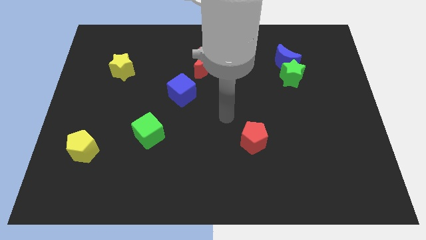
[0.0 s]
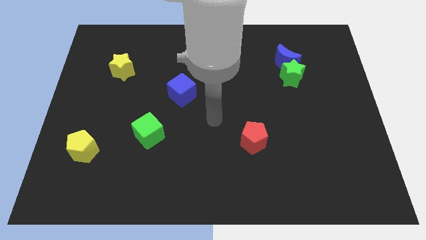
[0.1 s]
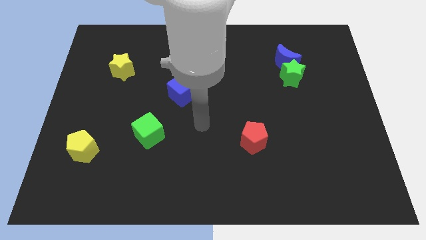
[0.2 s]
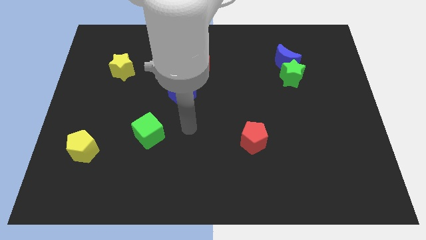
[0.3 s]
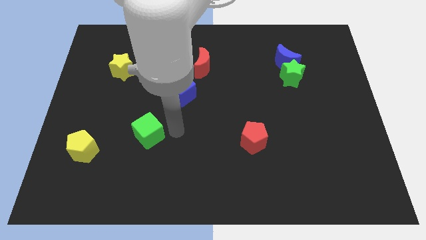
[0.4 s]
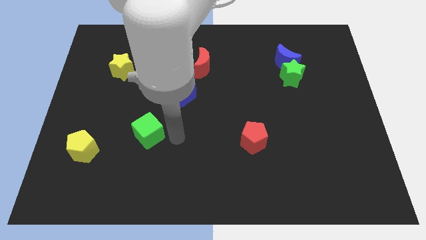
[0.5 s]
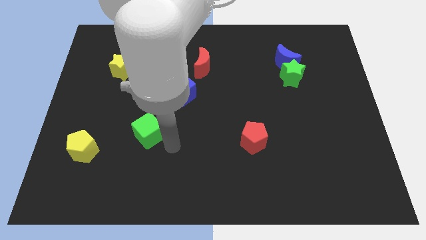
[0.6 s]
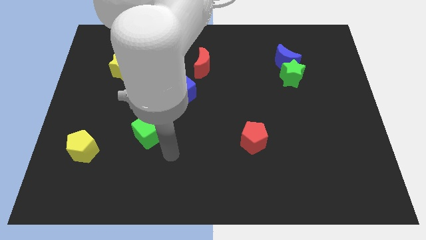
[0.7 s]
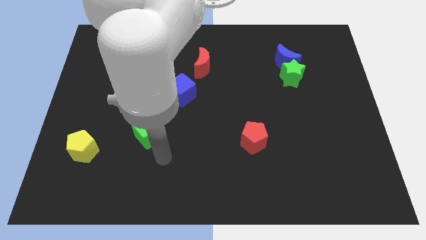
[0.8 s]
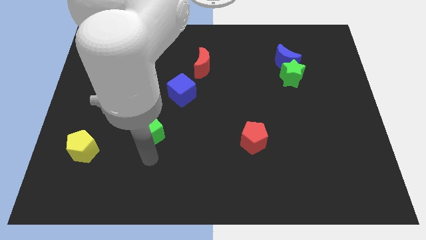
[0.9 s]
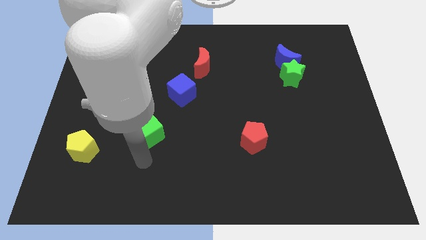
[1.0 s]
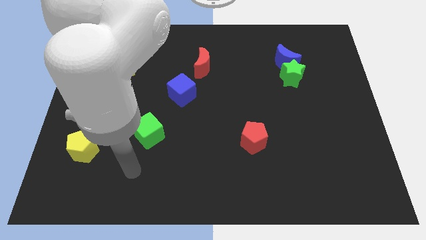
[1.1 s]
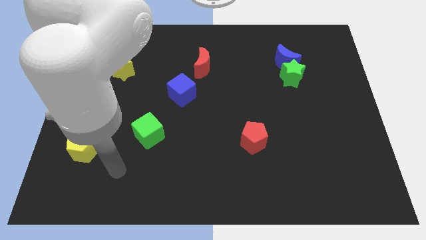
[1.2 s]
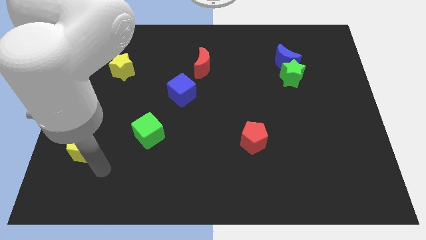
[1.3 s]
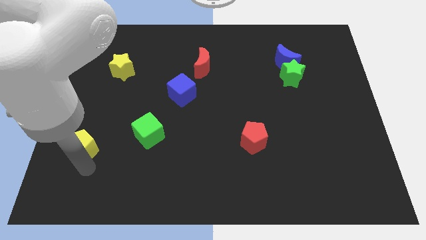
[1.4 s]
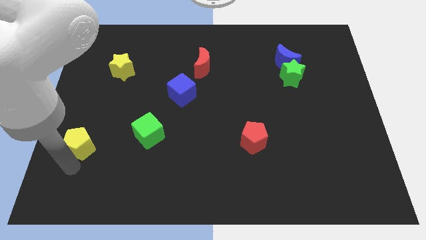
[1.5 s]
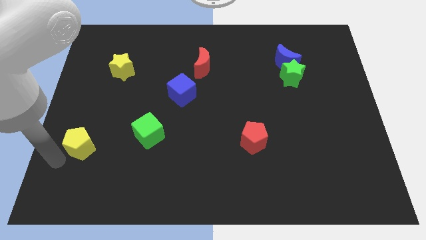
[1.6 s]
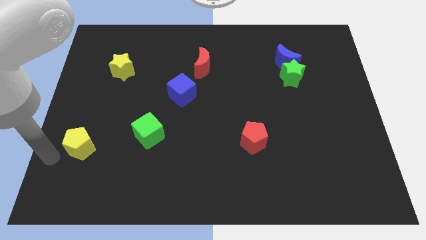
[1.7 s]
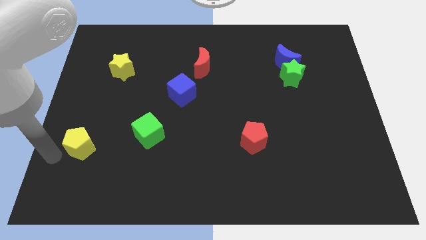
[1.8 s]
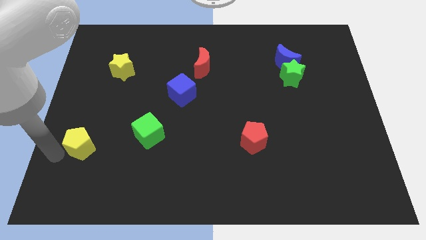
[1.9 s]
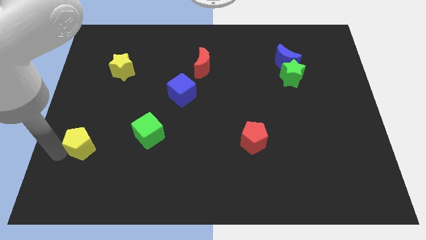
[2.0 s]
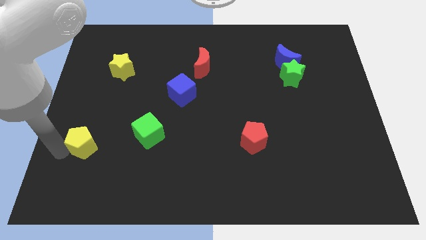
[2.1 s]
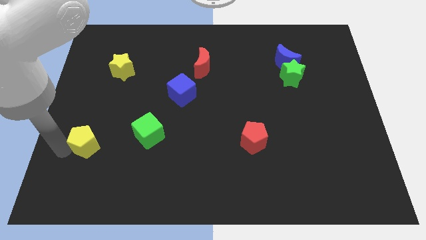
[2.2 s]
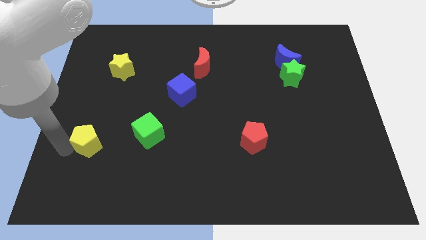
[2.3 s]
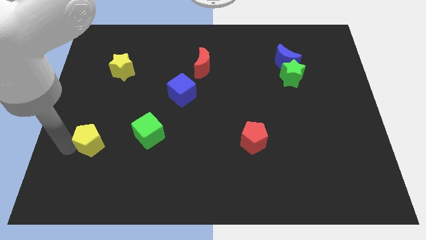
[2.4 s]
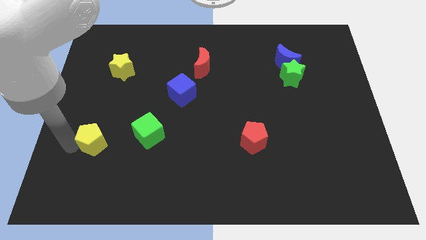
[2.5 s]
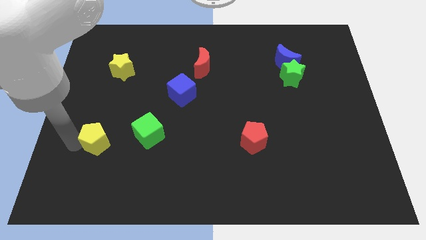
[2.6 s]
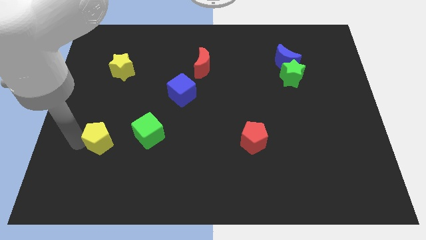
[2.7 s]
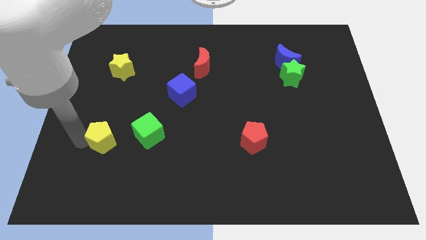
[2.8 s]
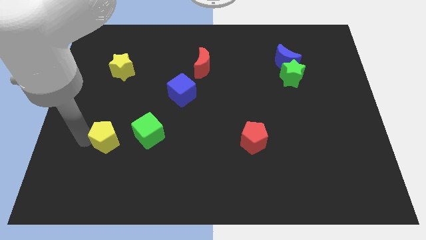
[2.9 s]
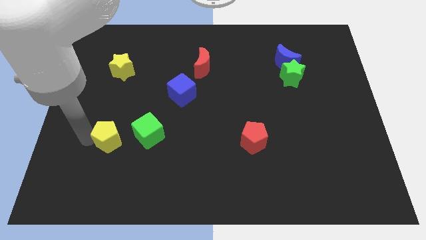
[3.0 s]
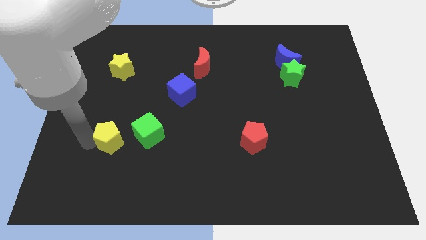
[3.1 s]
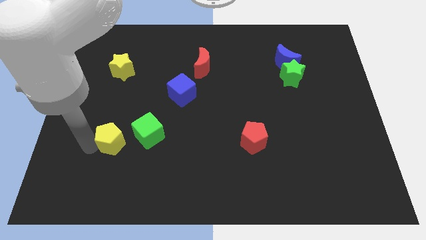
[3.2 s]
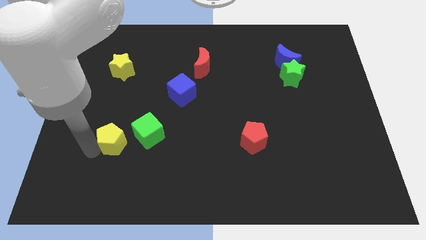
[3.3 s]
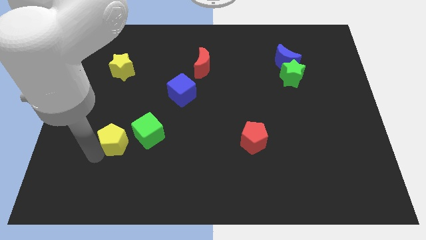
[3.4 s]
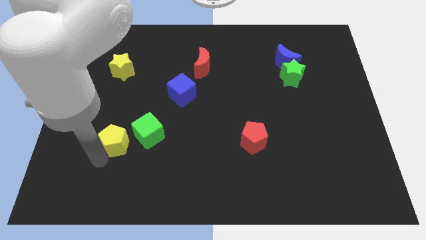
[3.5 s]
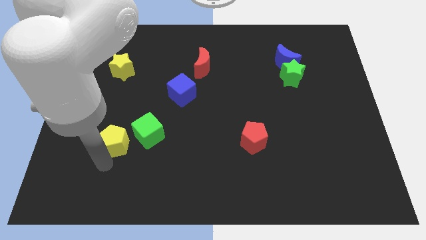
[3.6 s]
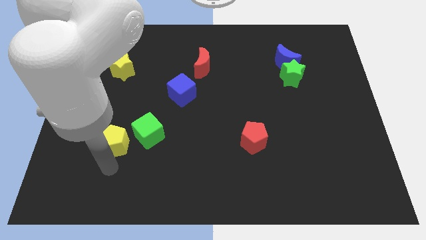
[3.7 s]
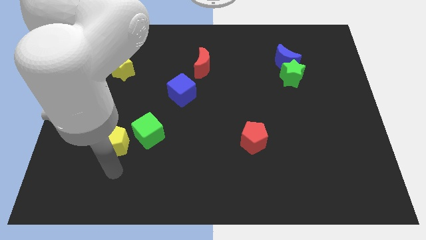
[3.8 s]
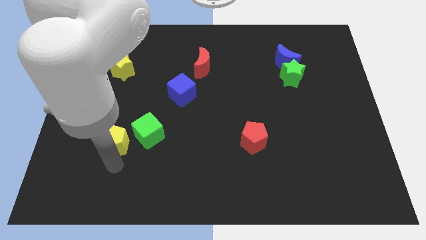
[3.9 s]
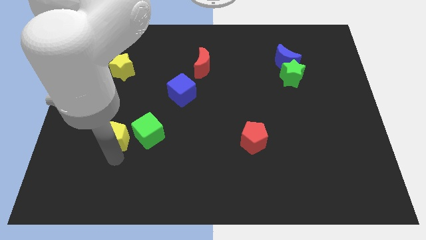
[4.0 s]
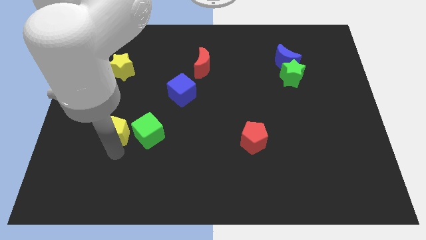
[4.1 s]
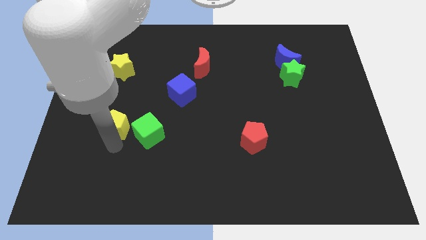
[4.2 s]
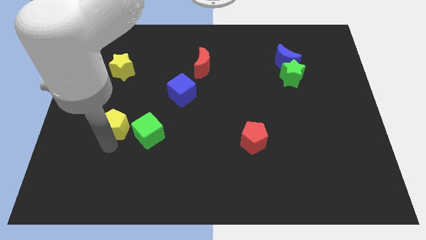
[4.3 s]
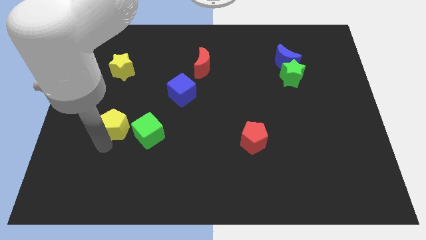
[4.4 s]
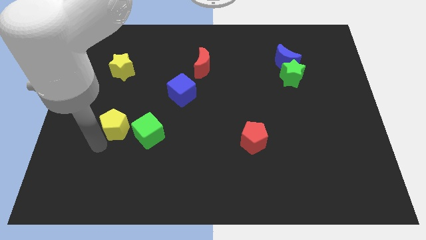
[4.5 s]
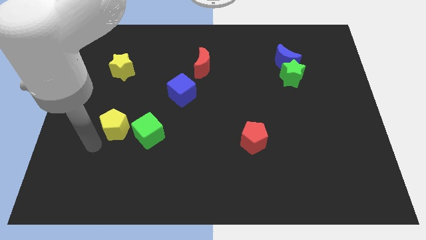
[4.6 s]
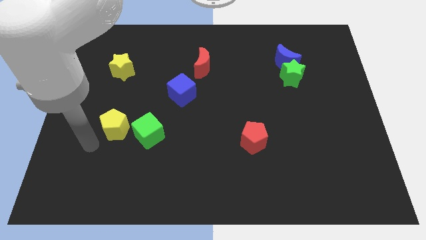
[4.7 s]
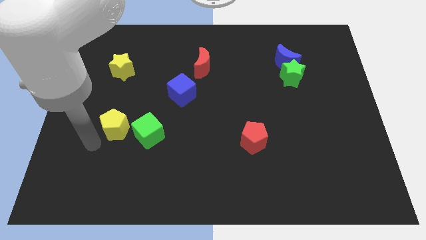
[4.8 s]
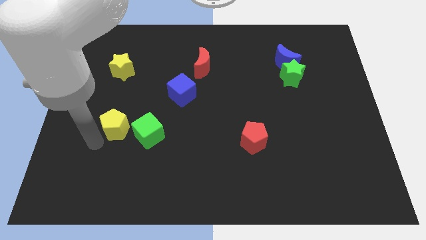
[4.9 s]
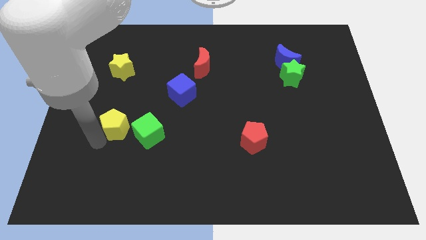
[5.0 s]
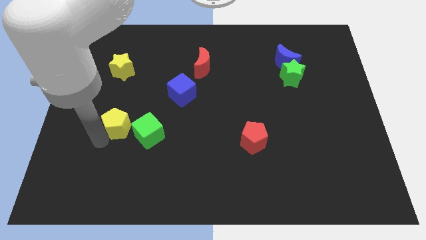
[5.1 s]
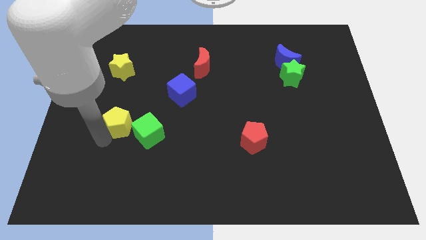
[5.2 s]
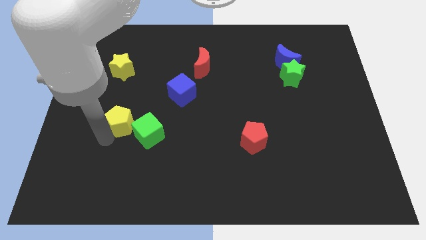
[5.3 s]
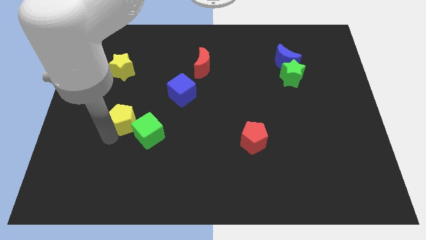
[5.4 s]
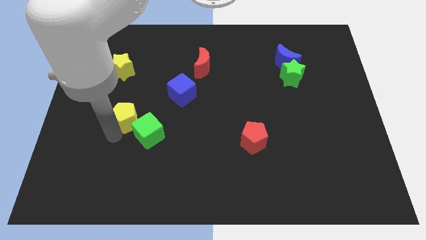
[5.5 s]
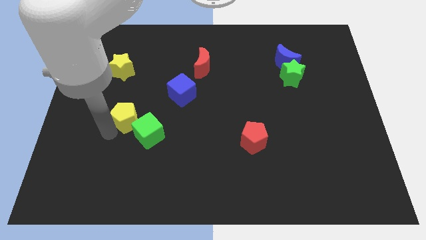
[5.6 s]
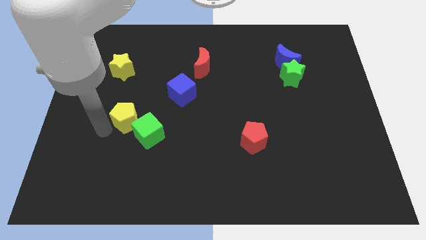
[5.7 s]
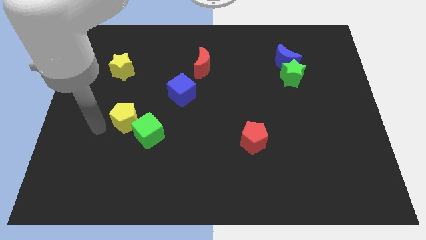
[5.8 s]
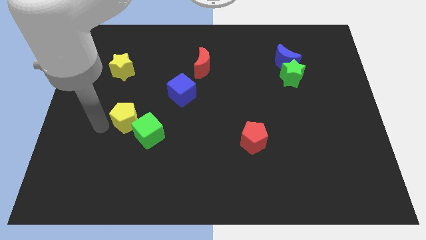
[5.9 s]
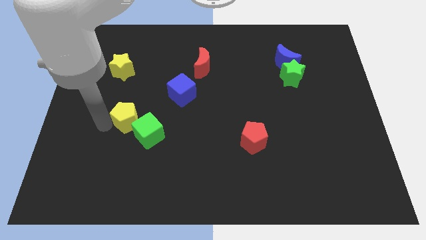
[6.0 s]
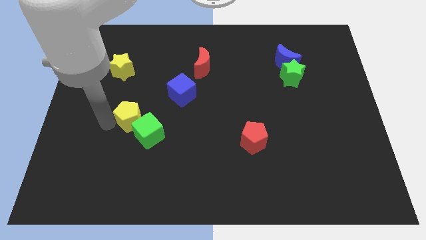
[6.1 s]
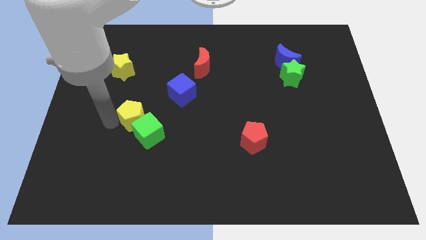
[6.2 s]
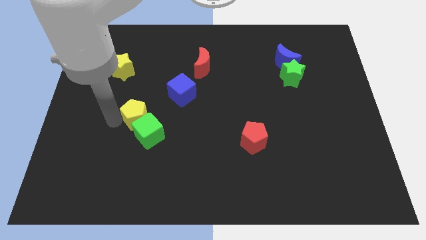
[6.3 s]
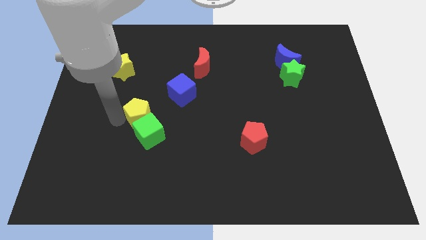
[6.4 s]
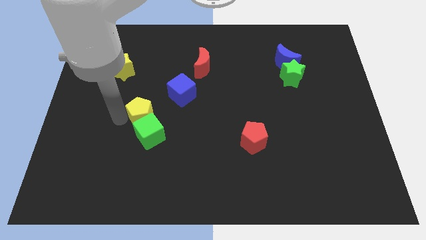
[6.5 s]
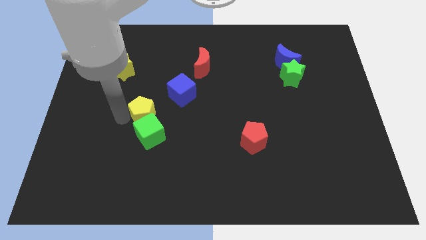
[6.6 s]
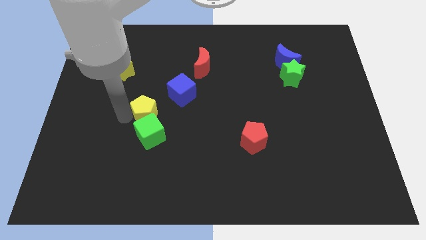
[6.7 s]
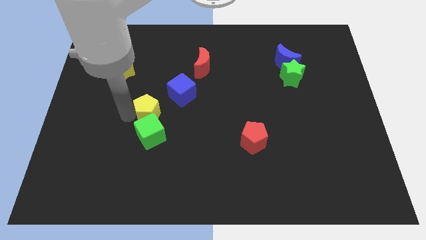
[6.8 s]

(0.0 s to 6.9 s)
move the yellow pentagon diagonally up and to the right of the green cube

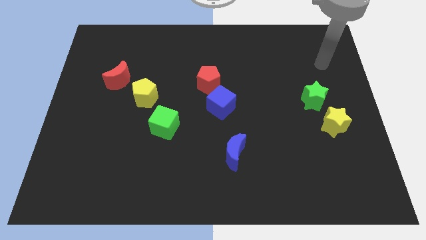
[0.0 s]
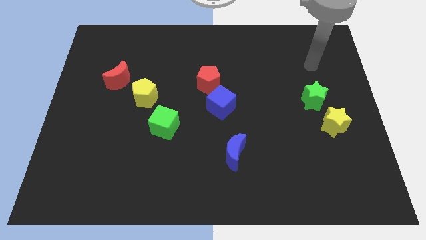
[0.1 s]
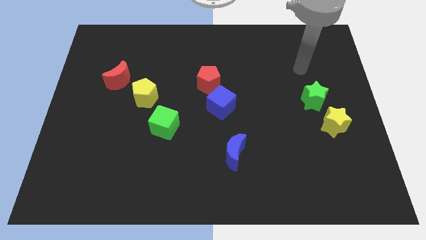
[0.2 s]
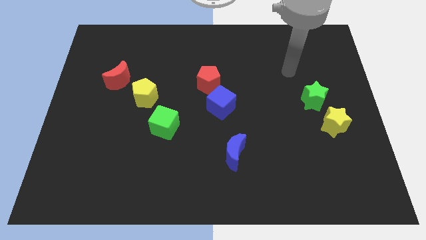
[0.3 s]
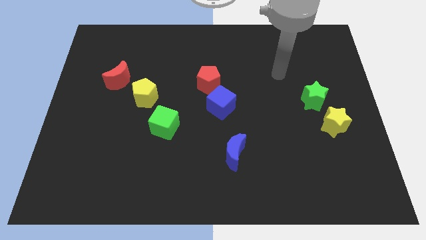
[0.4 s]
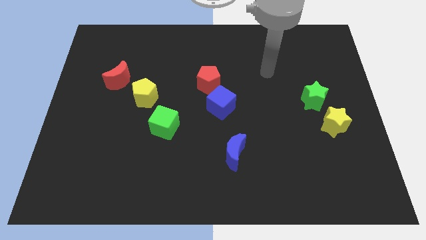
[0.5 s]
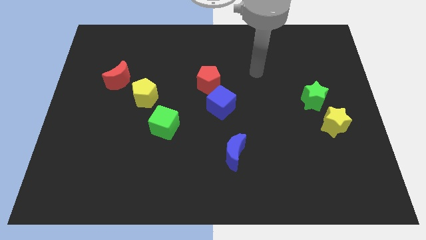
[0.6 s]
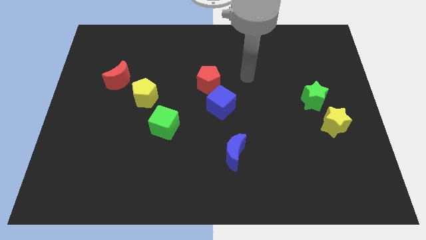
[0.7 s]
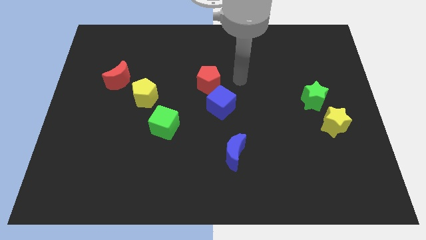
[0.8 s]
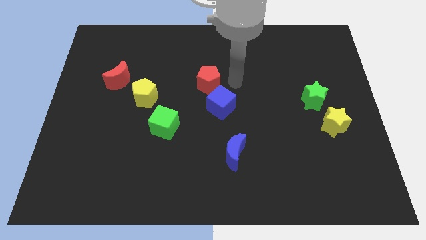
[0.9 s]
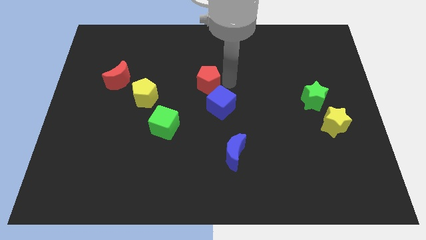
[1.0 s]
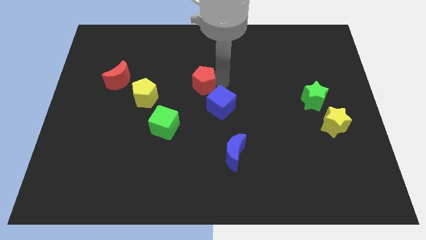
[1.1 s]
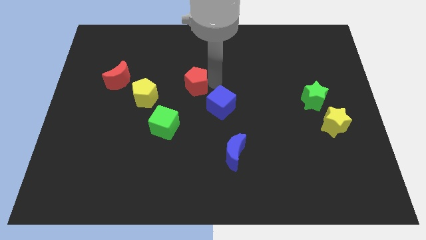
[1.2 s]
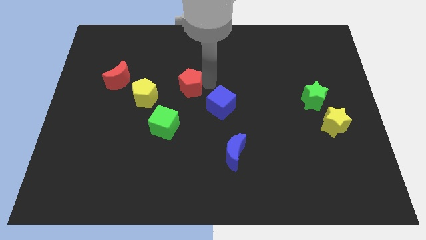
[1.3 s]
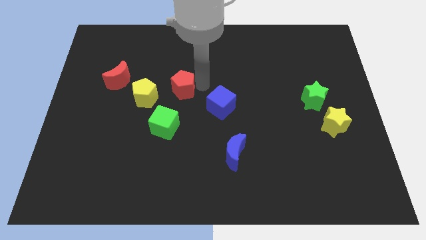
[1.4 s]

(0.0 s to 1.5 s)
move the red pentagon diagonally up and to the right of the yellow pentagon
